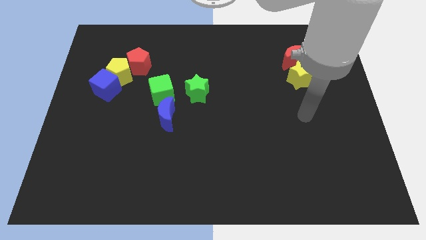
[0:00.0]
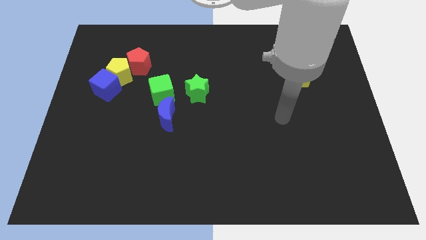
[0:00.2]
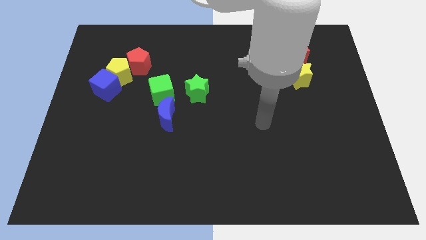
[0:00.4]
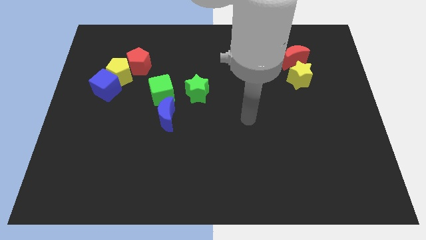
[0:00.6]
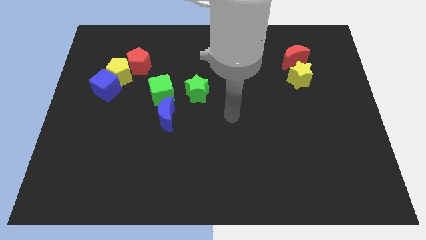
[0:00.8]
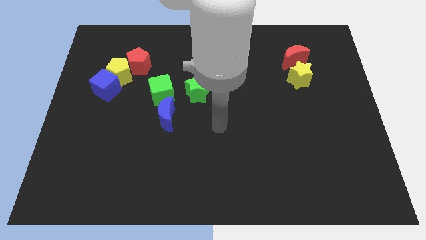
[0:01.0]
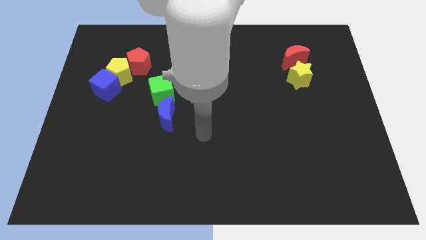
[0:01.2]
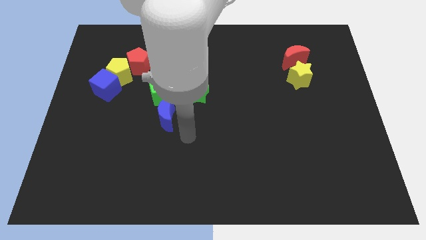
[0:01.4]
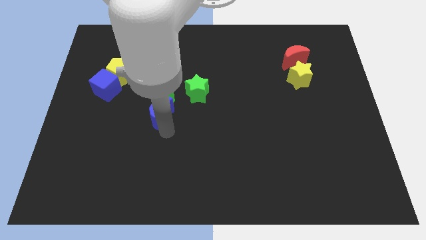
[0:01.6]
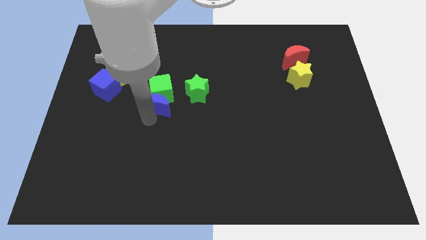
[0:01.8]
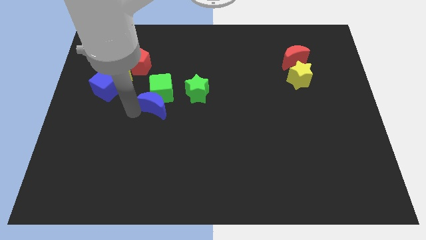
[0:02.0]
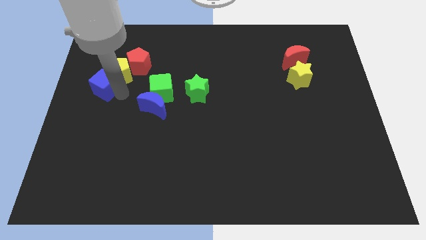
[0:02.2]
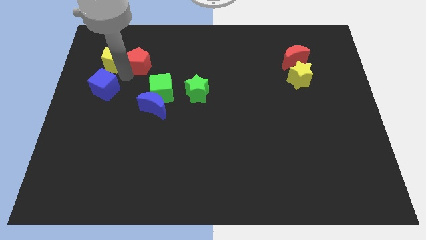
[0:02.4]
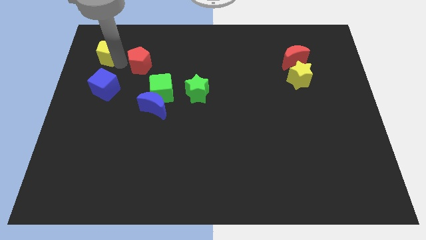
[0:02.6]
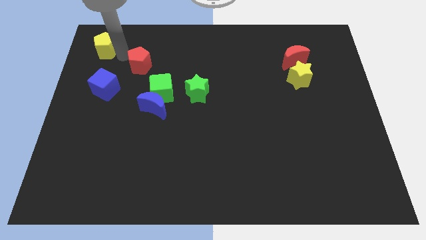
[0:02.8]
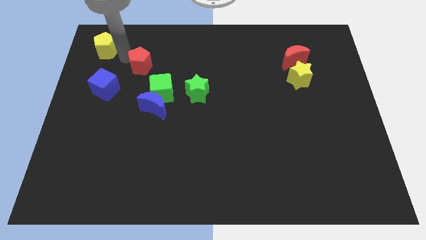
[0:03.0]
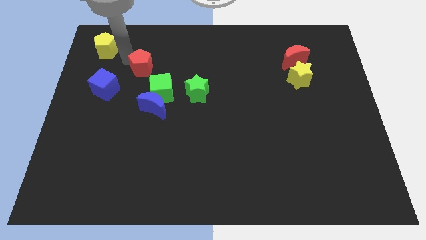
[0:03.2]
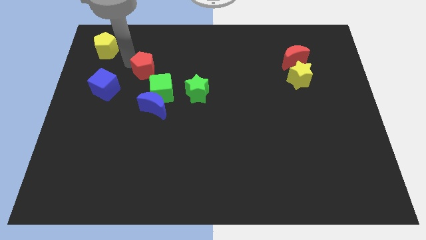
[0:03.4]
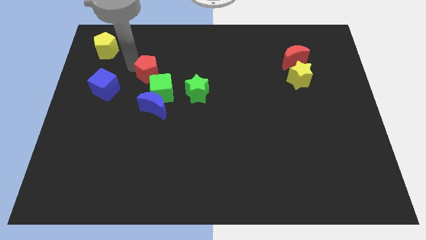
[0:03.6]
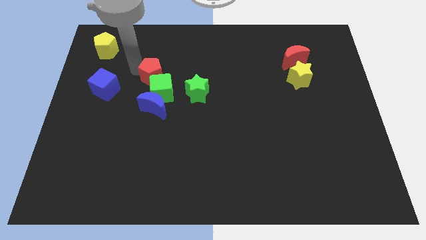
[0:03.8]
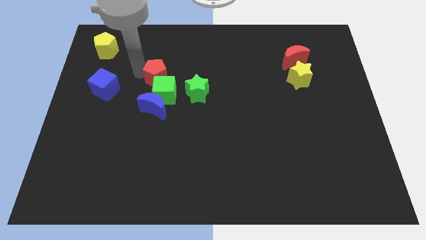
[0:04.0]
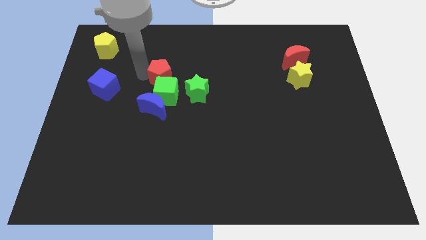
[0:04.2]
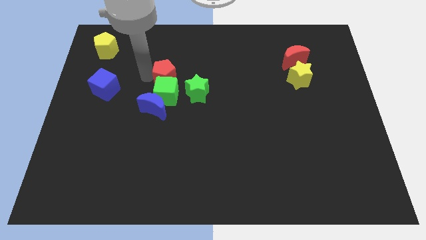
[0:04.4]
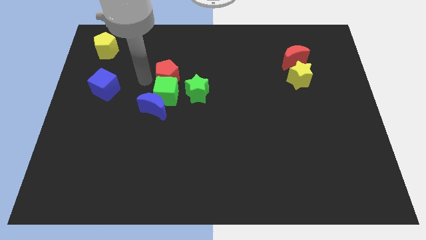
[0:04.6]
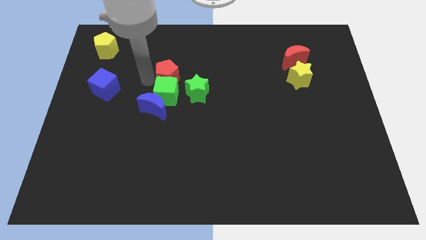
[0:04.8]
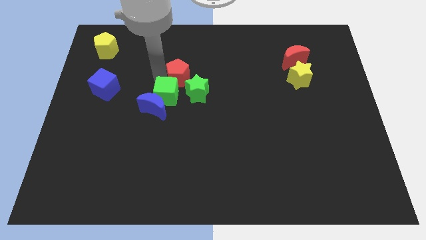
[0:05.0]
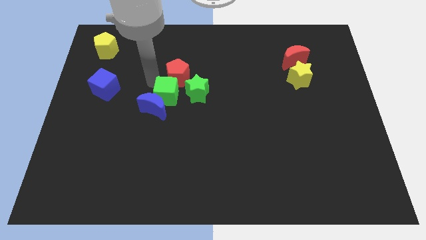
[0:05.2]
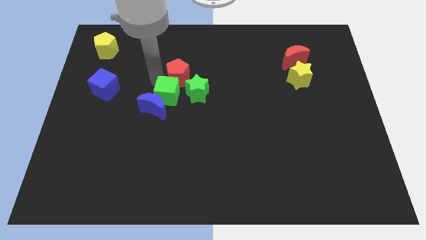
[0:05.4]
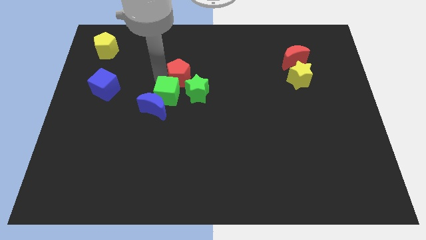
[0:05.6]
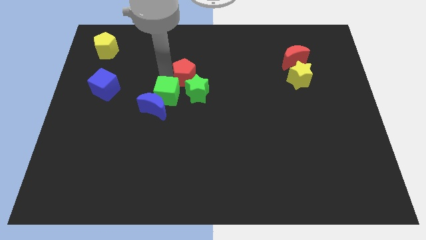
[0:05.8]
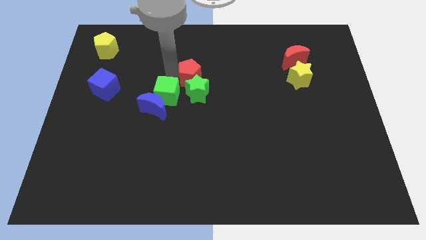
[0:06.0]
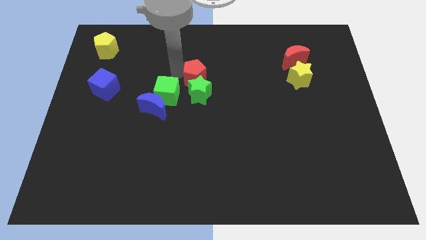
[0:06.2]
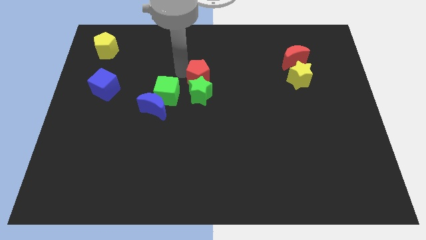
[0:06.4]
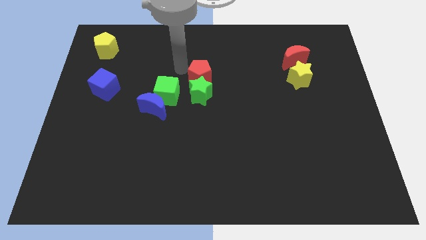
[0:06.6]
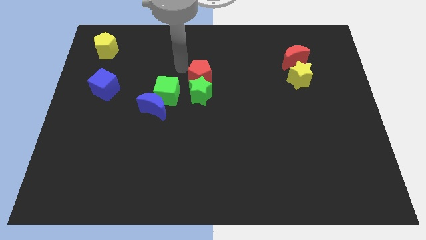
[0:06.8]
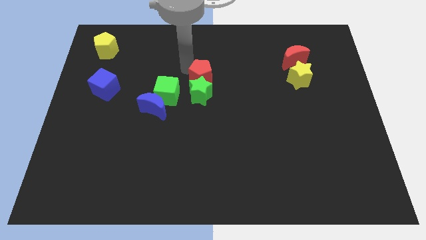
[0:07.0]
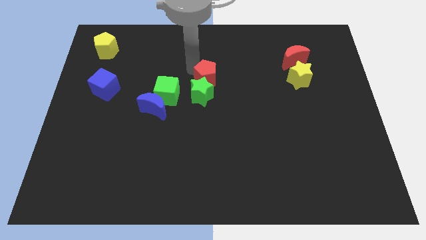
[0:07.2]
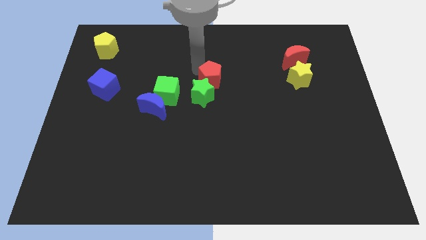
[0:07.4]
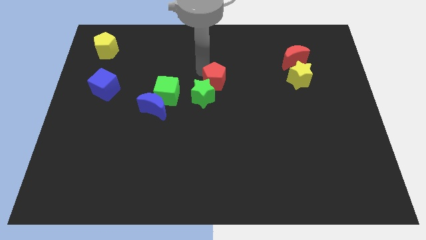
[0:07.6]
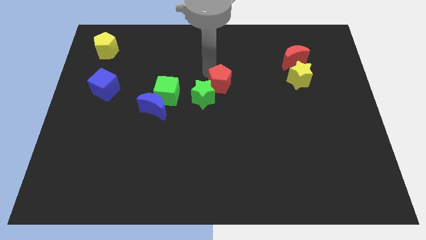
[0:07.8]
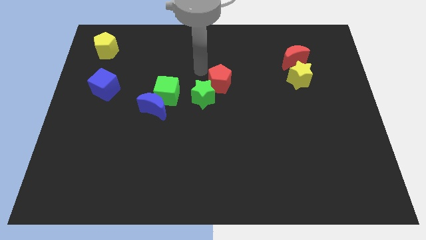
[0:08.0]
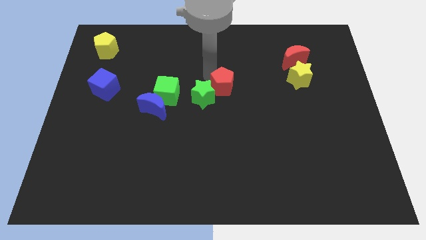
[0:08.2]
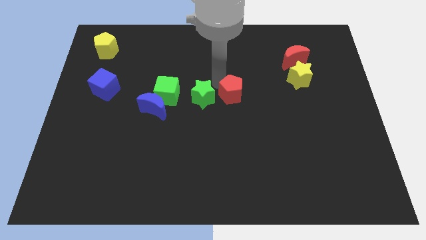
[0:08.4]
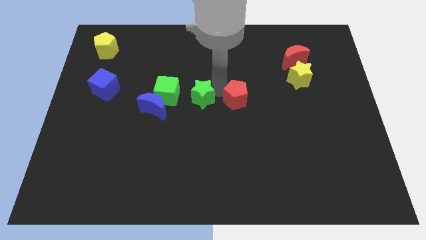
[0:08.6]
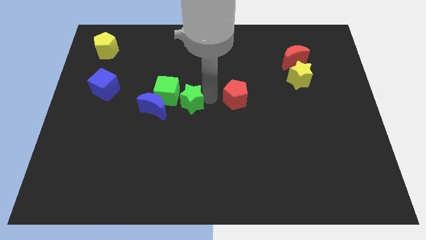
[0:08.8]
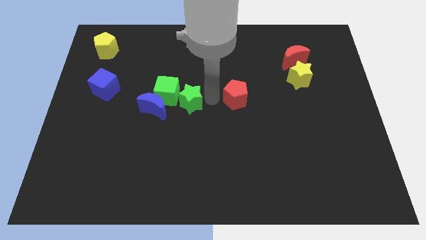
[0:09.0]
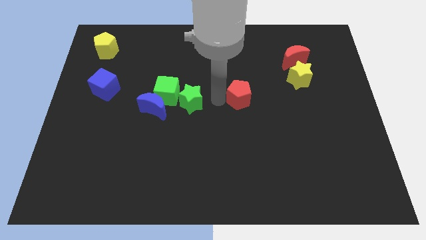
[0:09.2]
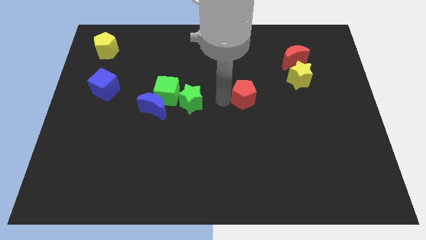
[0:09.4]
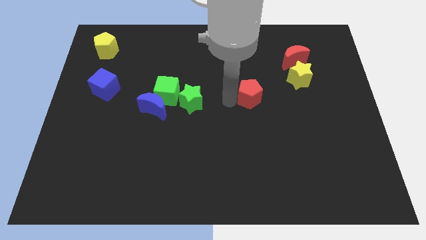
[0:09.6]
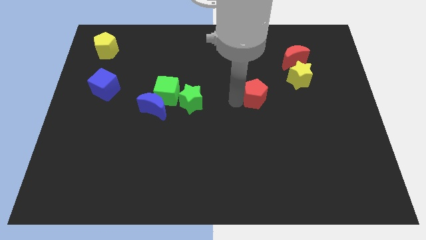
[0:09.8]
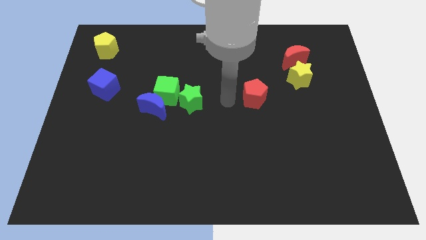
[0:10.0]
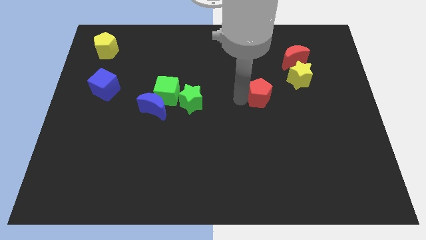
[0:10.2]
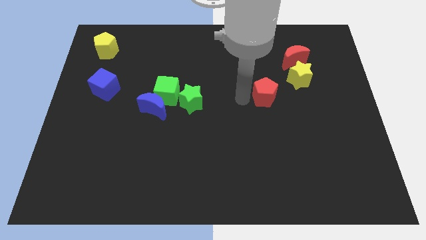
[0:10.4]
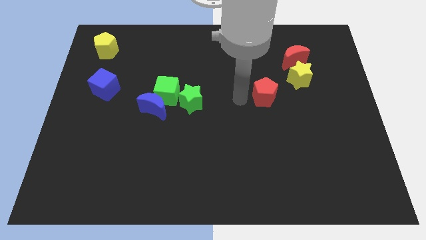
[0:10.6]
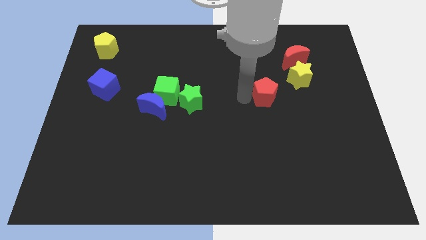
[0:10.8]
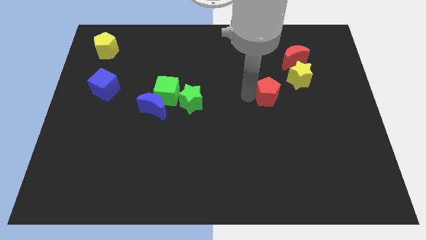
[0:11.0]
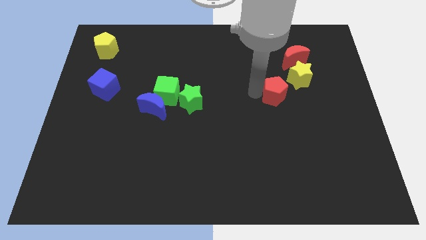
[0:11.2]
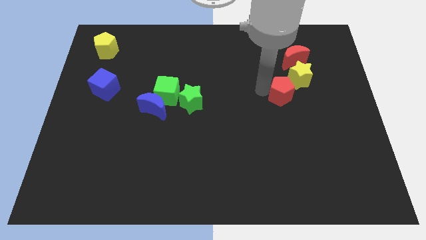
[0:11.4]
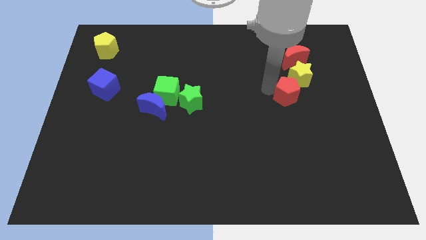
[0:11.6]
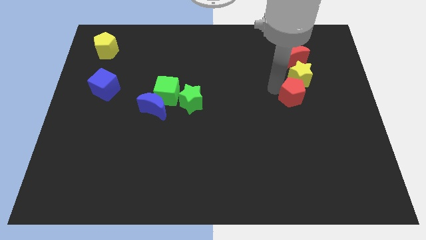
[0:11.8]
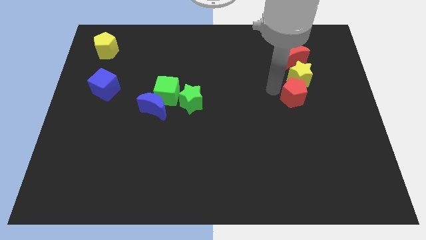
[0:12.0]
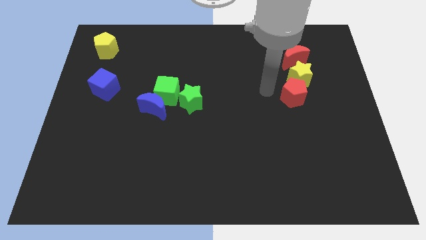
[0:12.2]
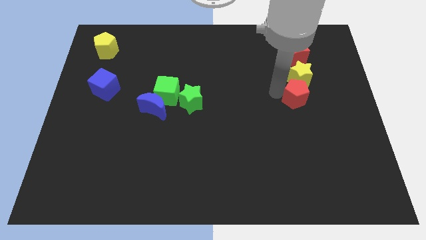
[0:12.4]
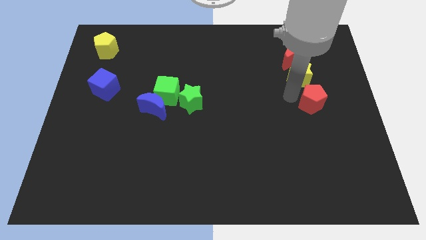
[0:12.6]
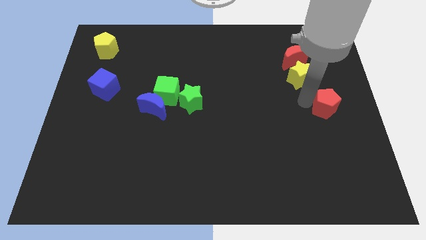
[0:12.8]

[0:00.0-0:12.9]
put the red pentagon to the right side of the board

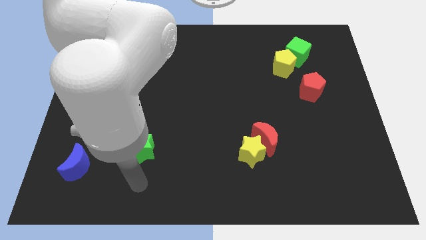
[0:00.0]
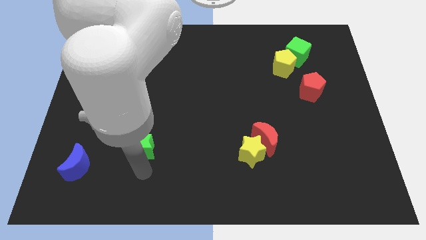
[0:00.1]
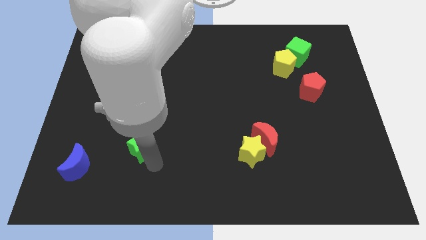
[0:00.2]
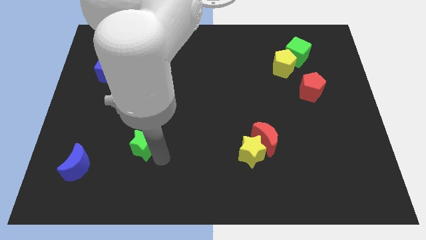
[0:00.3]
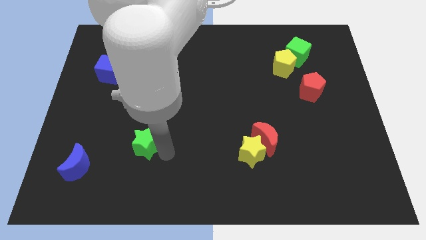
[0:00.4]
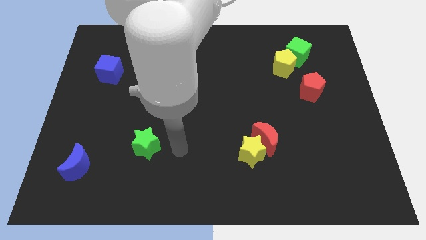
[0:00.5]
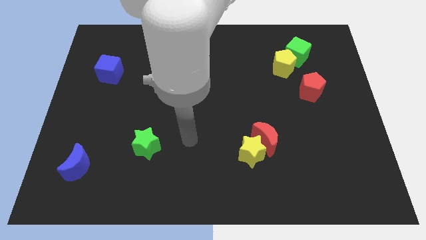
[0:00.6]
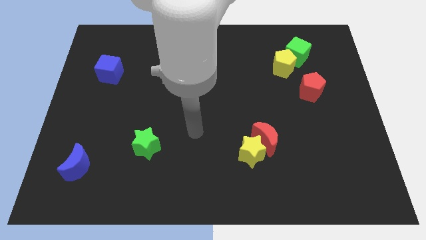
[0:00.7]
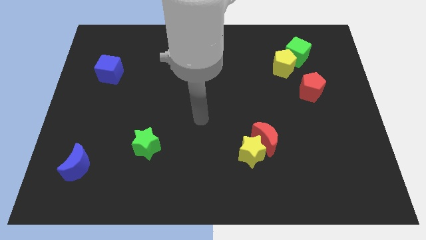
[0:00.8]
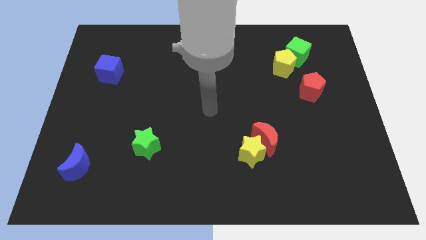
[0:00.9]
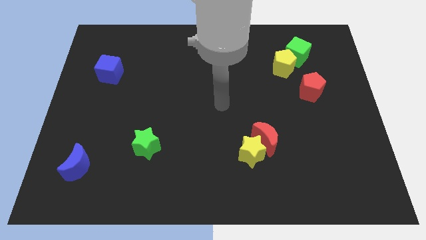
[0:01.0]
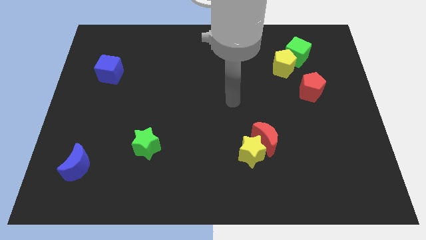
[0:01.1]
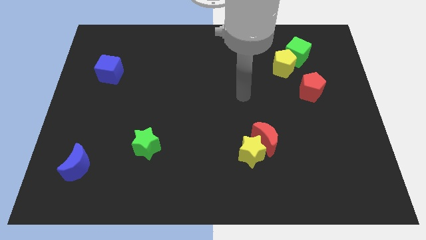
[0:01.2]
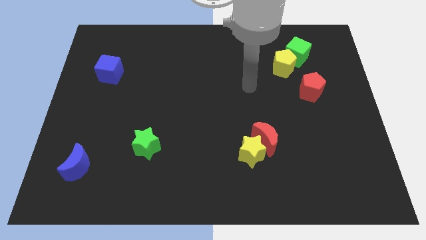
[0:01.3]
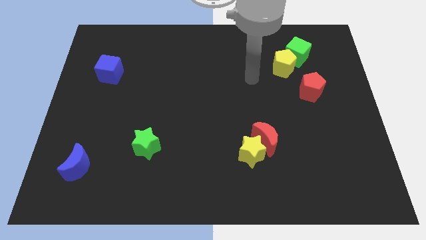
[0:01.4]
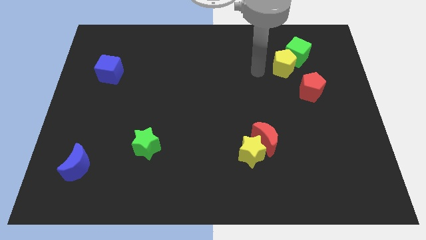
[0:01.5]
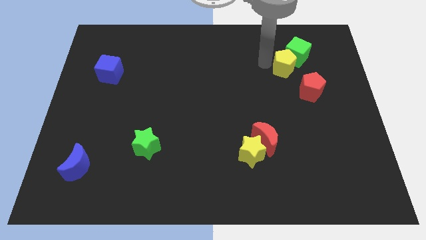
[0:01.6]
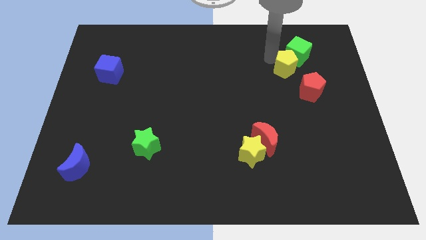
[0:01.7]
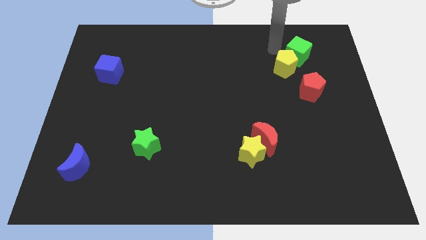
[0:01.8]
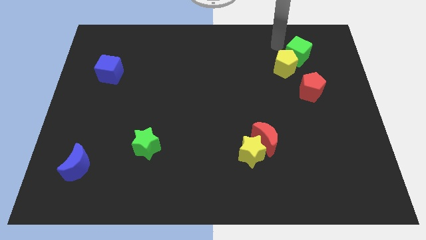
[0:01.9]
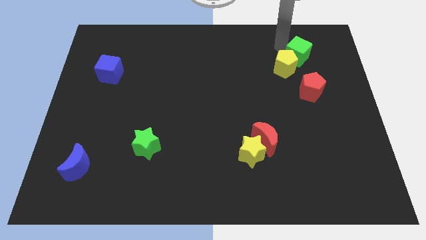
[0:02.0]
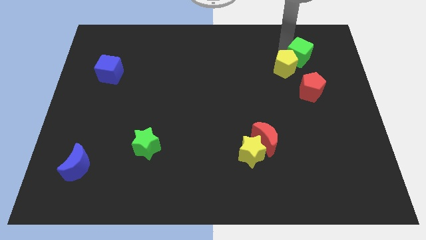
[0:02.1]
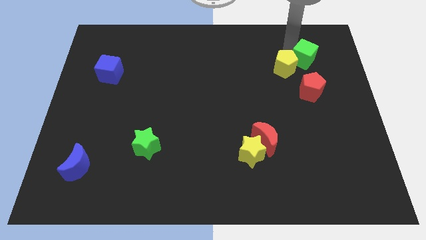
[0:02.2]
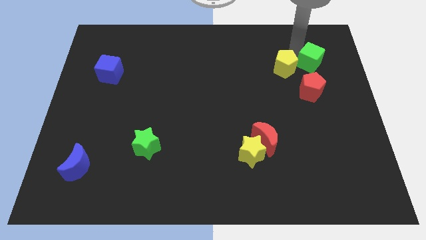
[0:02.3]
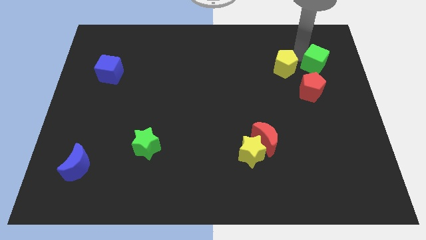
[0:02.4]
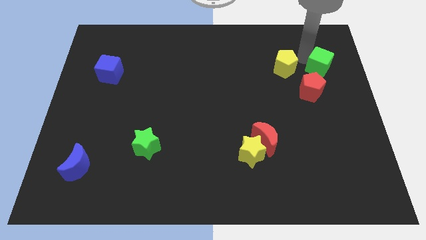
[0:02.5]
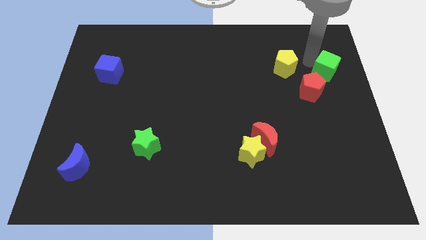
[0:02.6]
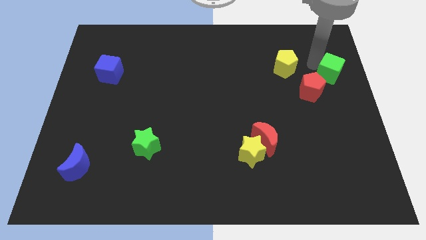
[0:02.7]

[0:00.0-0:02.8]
push the green cube to the right side of the board
